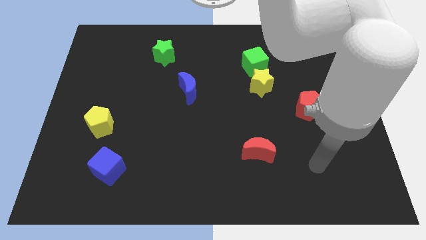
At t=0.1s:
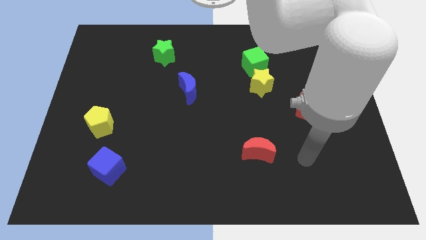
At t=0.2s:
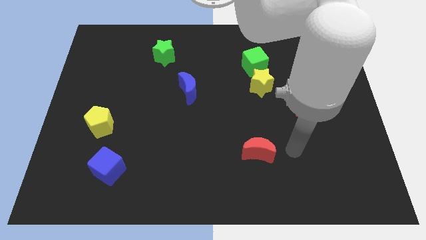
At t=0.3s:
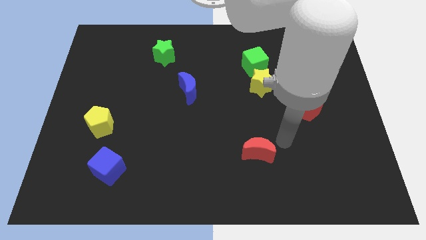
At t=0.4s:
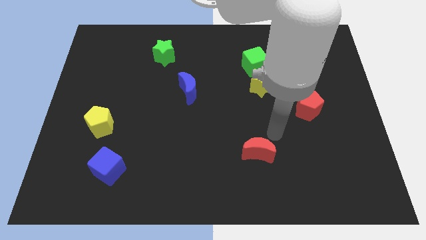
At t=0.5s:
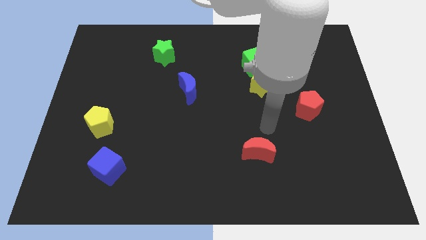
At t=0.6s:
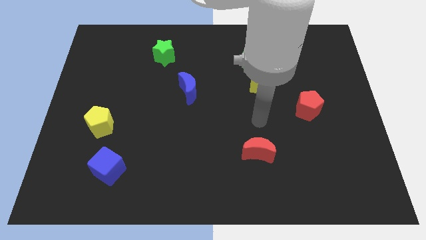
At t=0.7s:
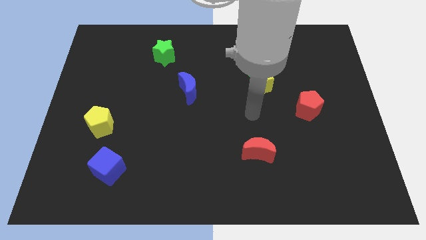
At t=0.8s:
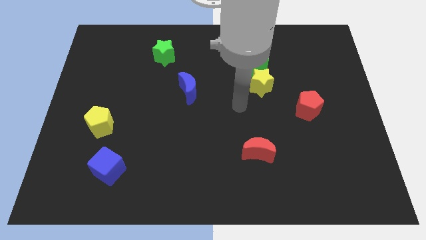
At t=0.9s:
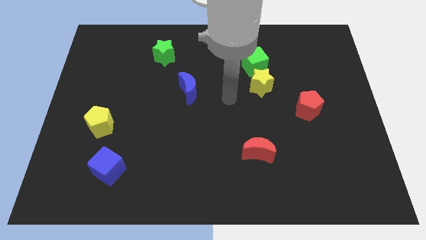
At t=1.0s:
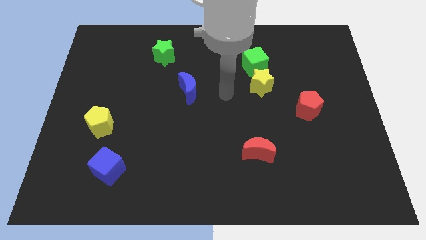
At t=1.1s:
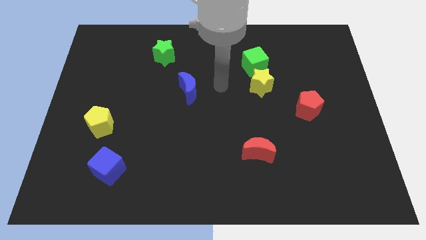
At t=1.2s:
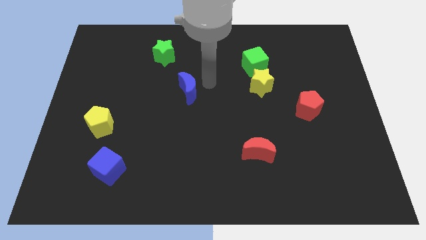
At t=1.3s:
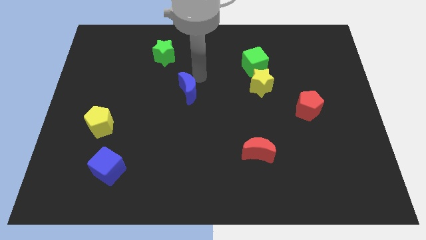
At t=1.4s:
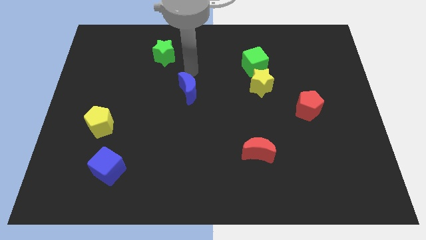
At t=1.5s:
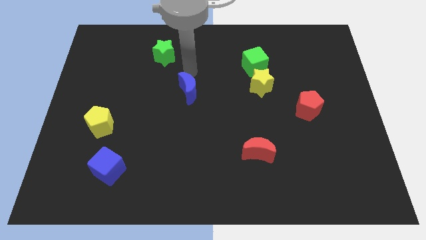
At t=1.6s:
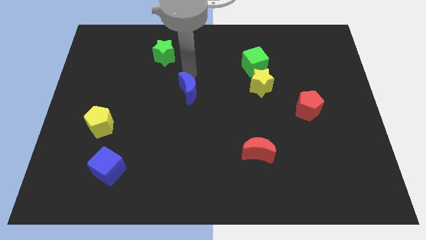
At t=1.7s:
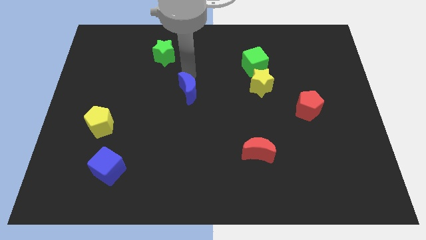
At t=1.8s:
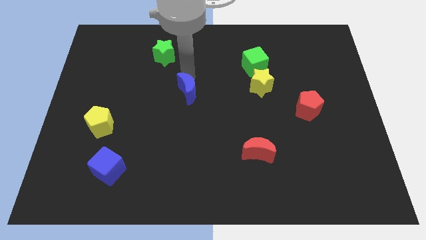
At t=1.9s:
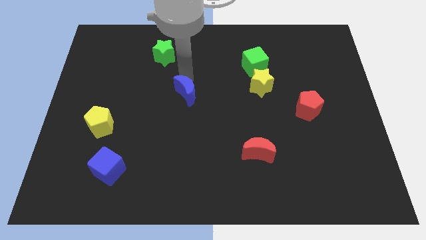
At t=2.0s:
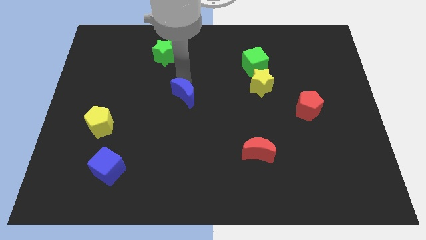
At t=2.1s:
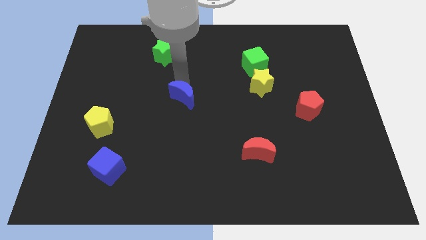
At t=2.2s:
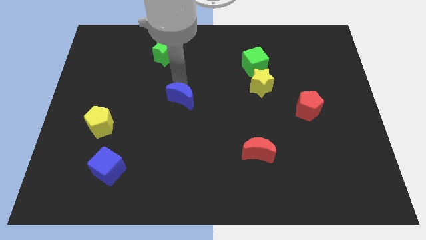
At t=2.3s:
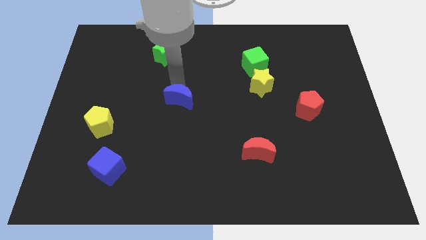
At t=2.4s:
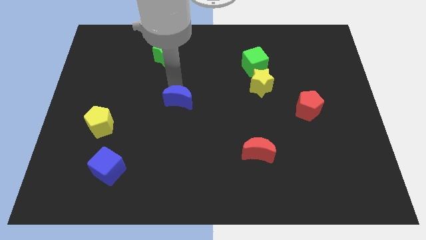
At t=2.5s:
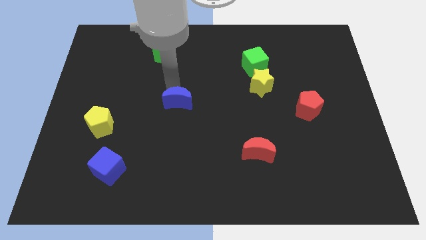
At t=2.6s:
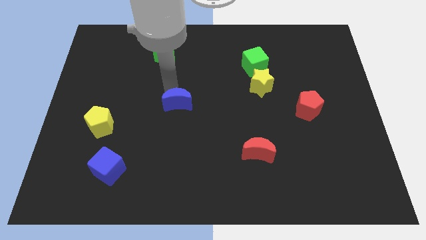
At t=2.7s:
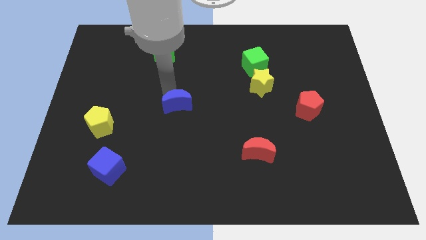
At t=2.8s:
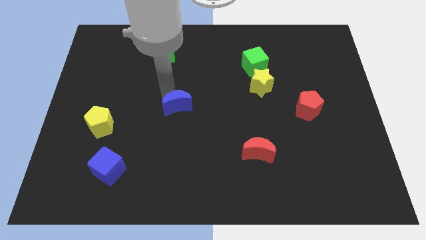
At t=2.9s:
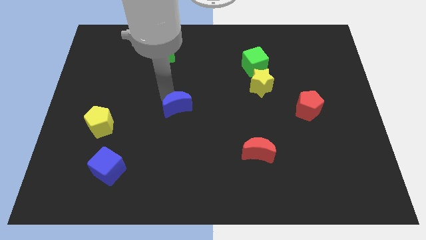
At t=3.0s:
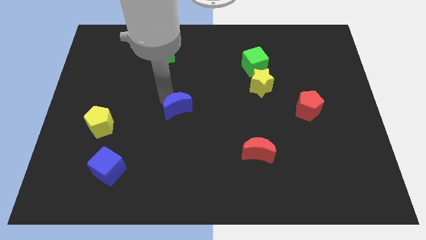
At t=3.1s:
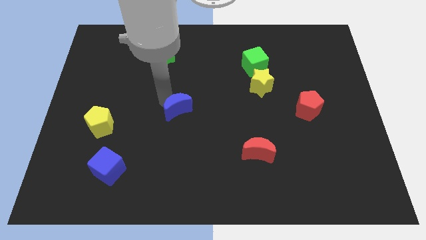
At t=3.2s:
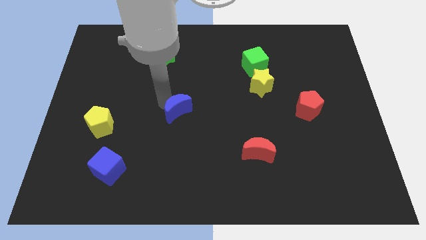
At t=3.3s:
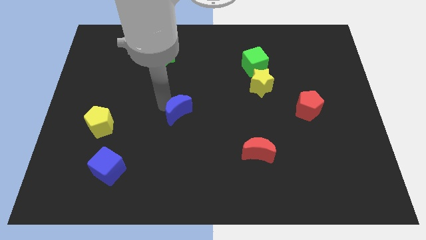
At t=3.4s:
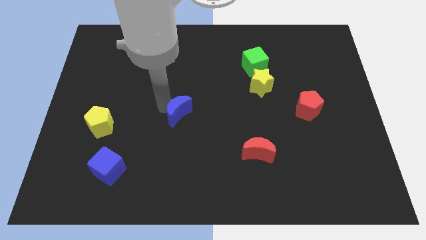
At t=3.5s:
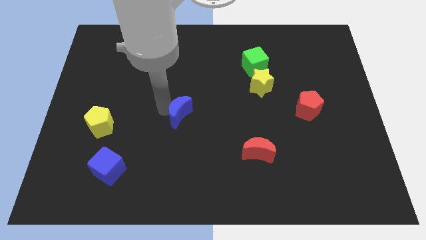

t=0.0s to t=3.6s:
move the blue moon down a little bit

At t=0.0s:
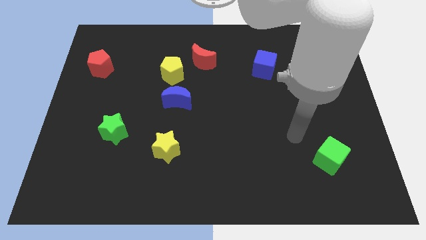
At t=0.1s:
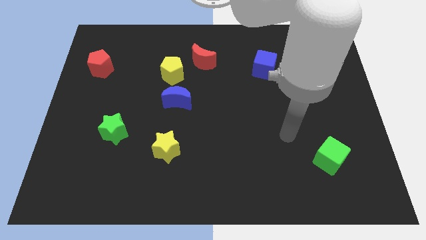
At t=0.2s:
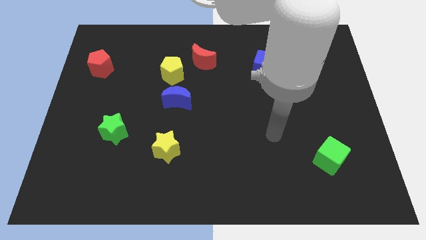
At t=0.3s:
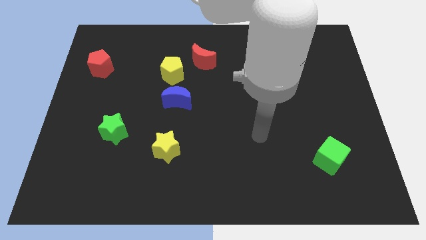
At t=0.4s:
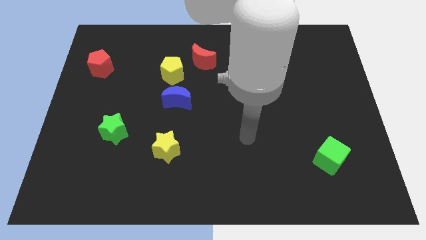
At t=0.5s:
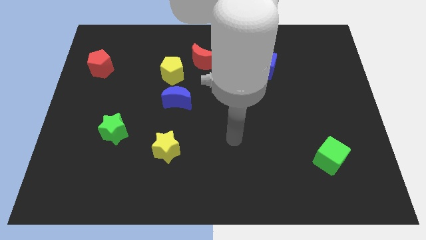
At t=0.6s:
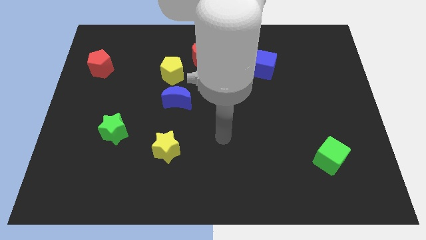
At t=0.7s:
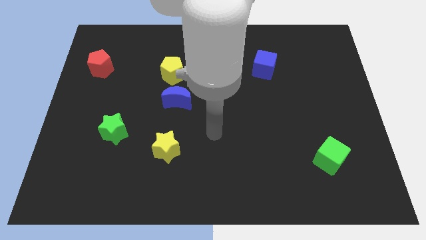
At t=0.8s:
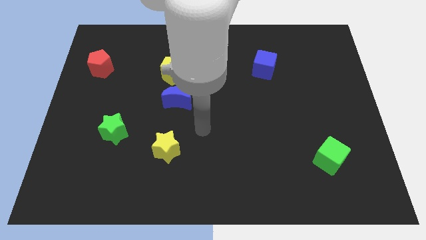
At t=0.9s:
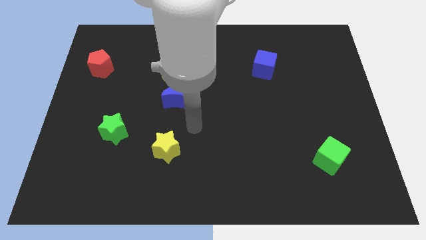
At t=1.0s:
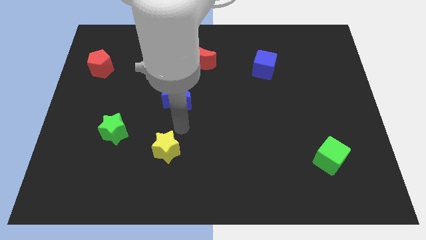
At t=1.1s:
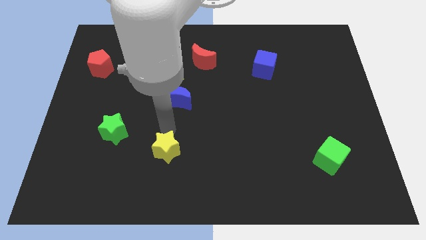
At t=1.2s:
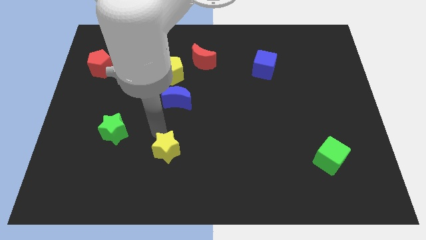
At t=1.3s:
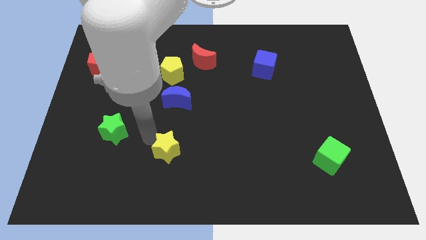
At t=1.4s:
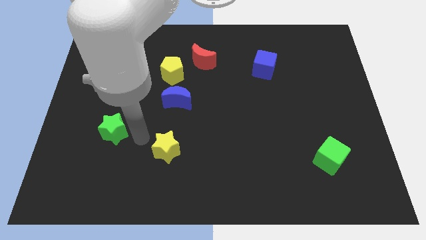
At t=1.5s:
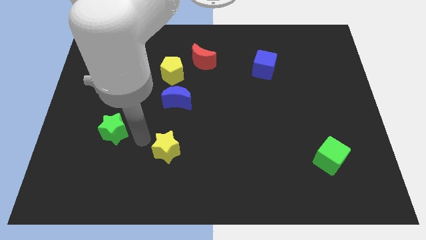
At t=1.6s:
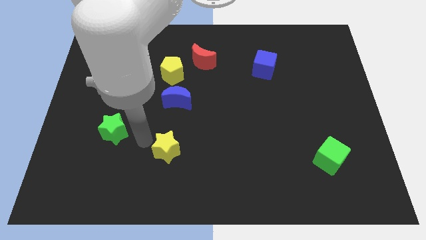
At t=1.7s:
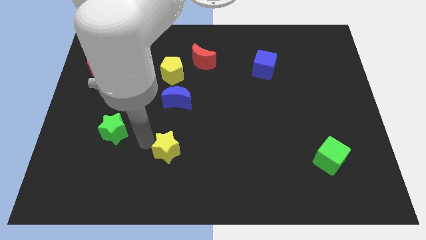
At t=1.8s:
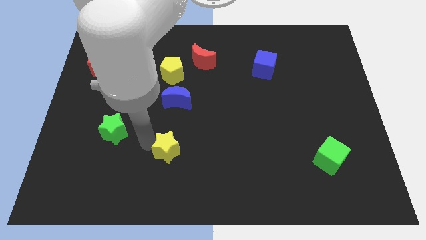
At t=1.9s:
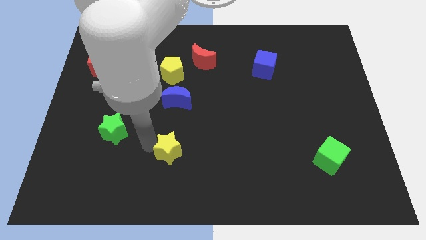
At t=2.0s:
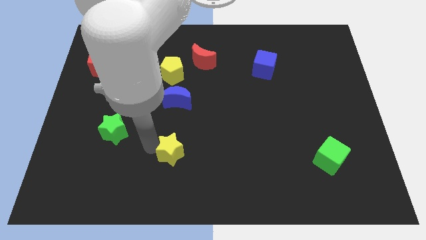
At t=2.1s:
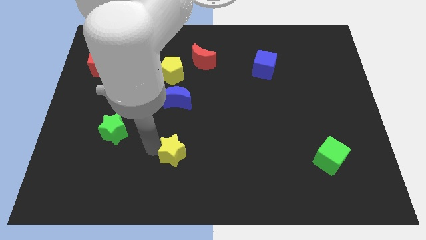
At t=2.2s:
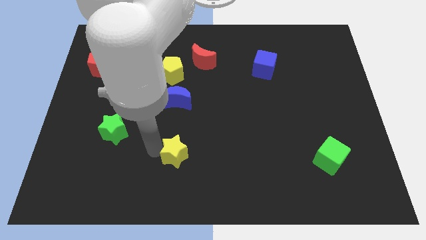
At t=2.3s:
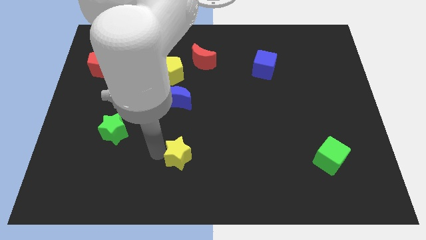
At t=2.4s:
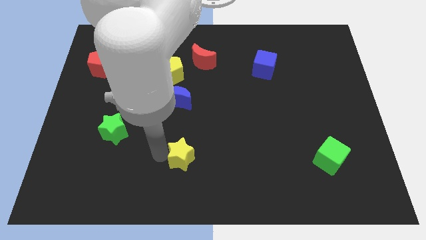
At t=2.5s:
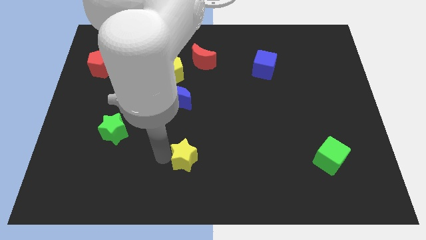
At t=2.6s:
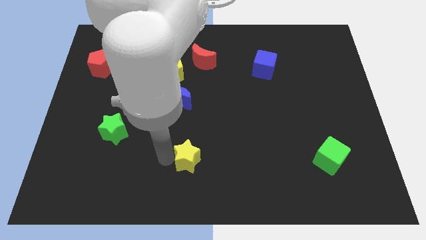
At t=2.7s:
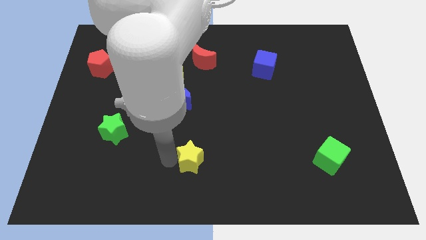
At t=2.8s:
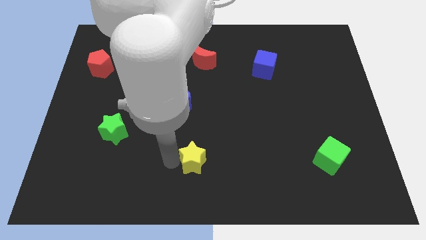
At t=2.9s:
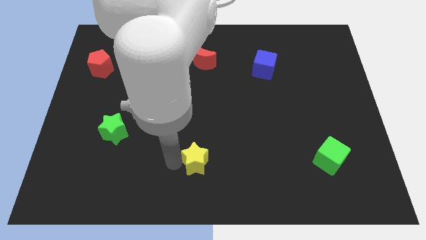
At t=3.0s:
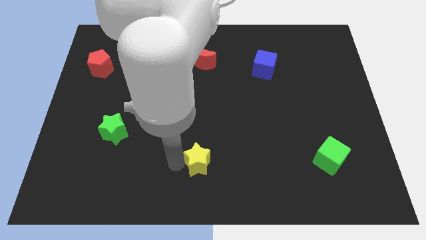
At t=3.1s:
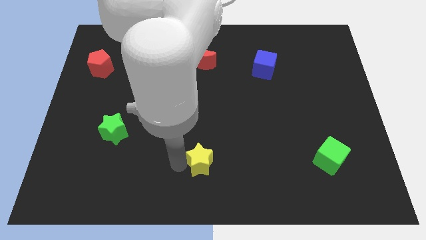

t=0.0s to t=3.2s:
push the yellow star slightly to the right

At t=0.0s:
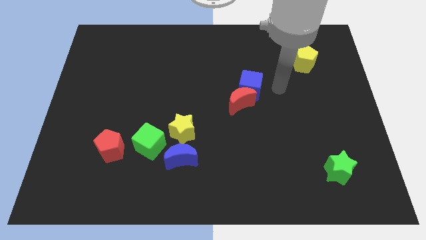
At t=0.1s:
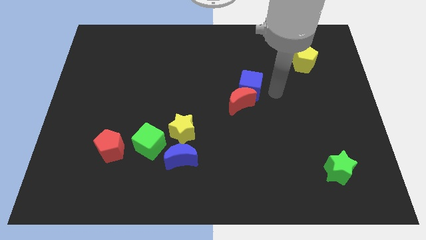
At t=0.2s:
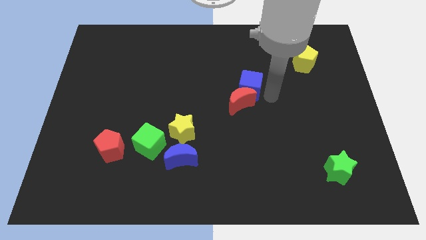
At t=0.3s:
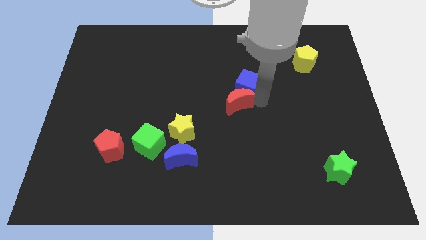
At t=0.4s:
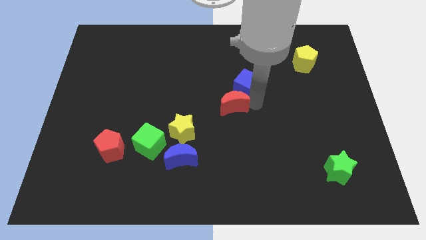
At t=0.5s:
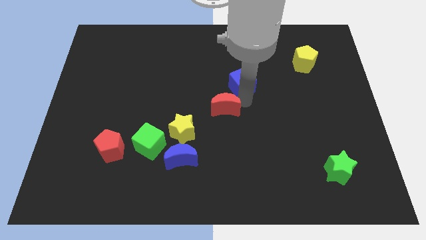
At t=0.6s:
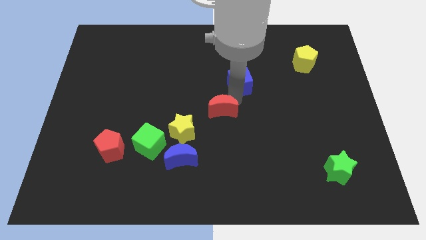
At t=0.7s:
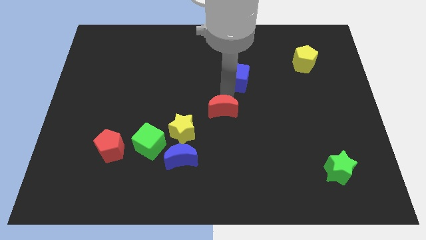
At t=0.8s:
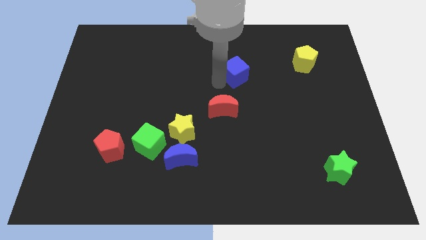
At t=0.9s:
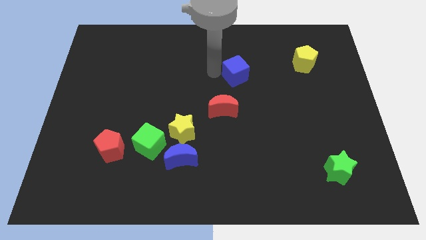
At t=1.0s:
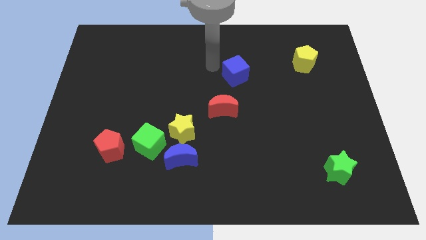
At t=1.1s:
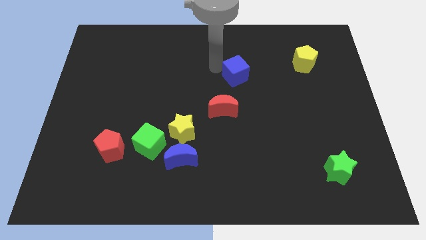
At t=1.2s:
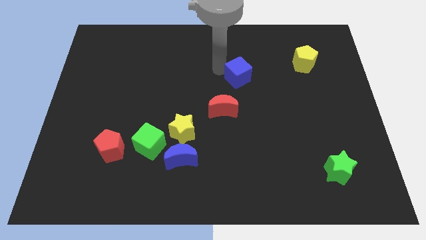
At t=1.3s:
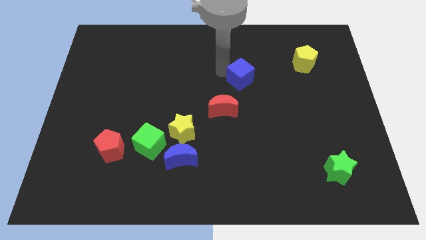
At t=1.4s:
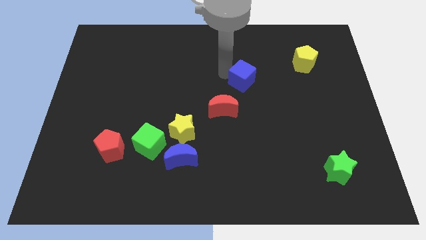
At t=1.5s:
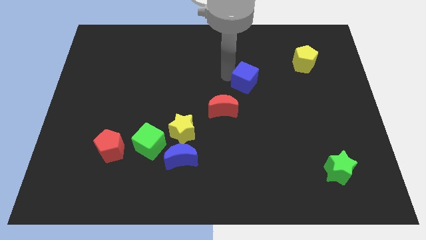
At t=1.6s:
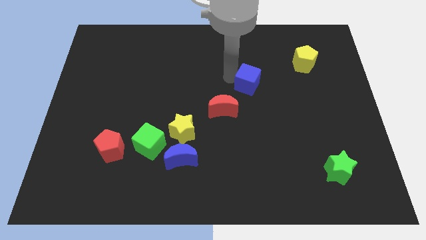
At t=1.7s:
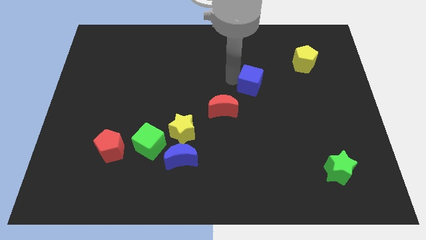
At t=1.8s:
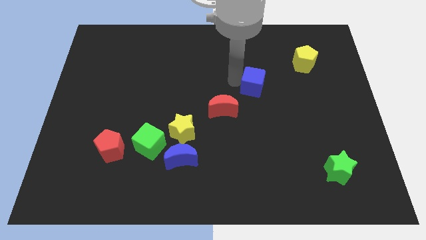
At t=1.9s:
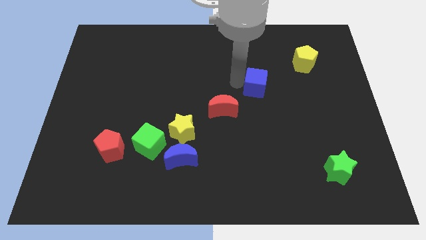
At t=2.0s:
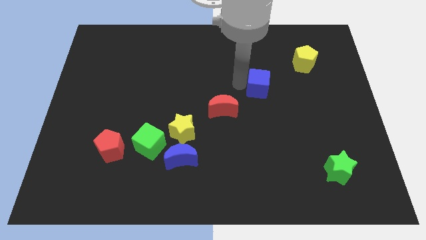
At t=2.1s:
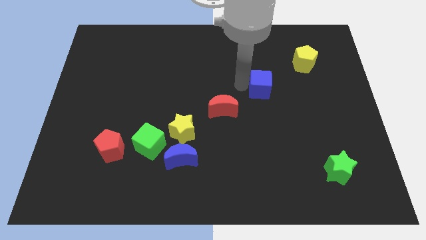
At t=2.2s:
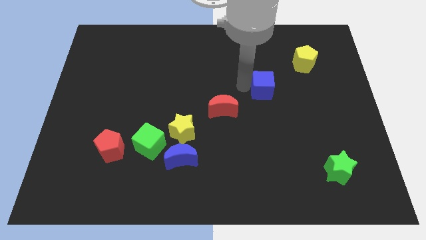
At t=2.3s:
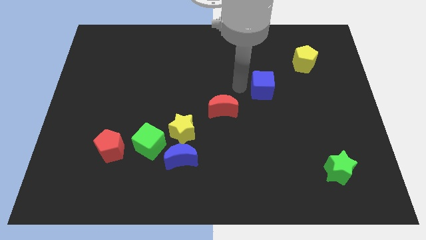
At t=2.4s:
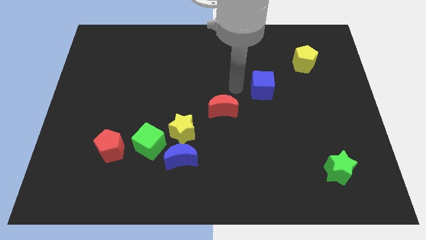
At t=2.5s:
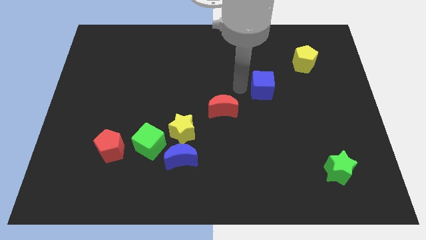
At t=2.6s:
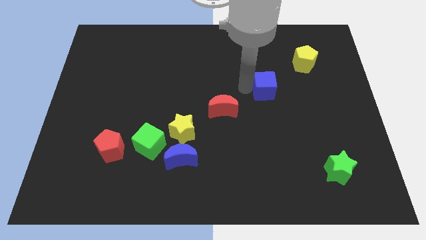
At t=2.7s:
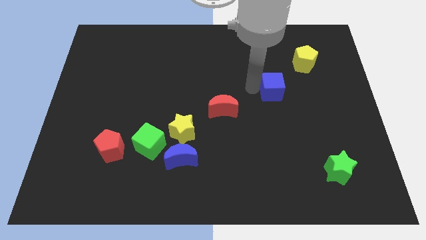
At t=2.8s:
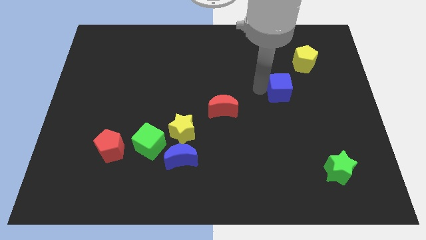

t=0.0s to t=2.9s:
slightly slide the blue cube to the right
